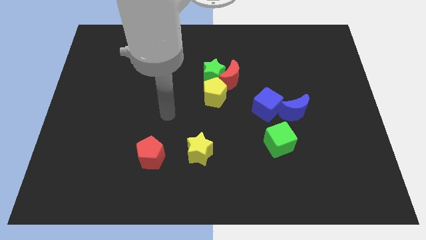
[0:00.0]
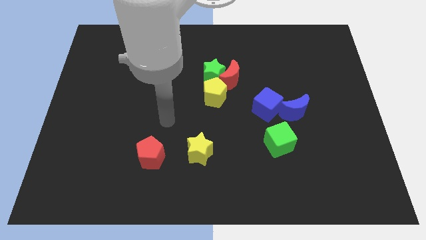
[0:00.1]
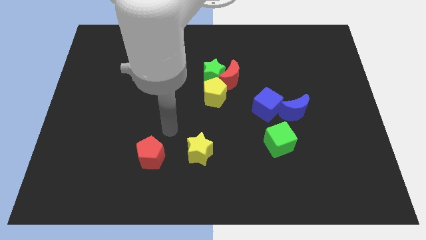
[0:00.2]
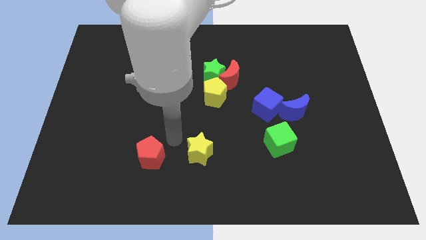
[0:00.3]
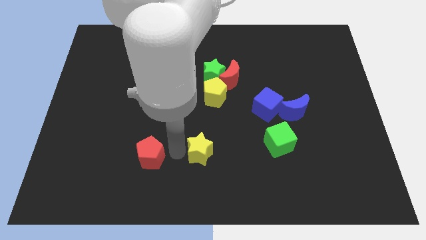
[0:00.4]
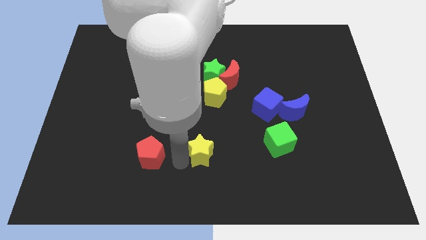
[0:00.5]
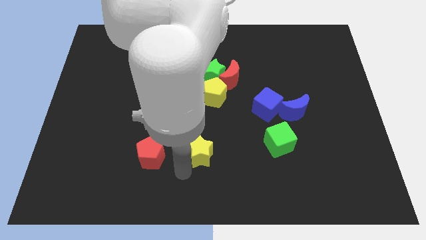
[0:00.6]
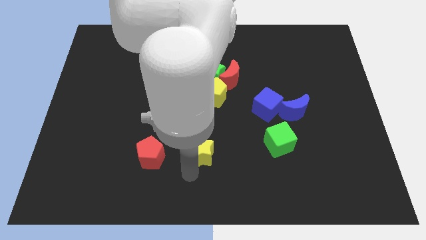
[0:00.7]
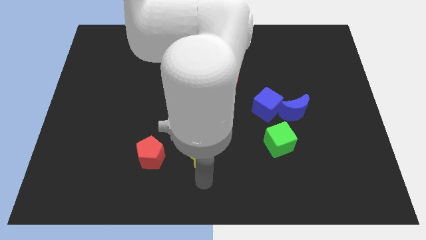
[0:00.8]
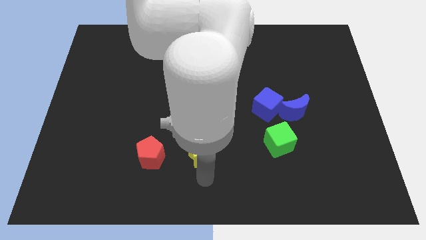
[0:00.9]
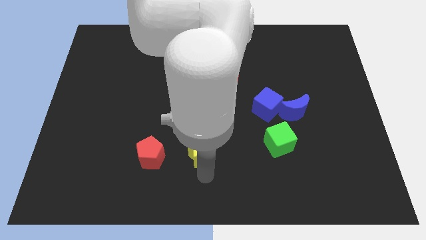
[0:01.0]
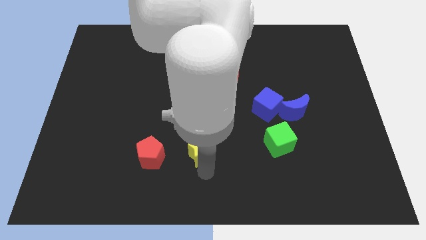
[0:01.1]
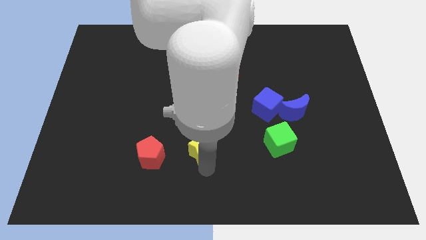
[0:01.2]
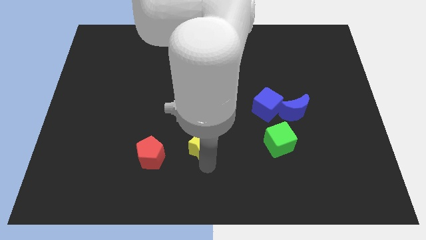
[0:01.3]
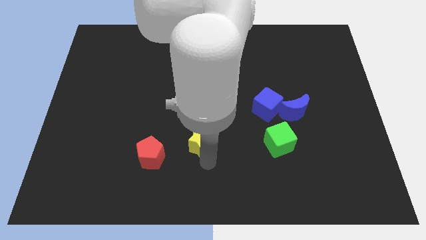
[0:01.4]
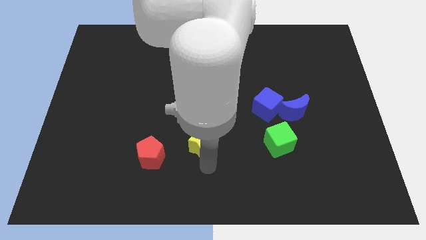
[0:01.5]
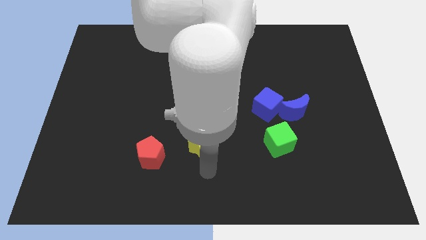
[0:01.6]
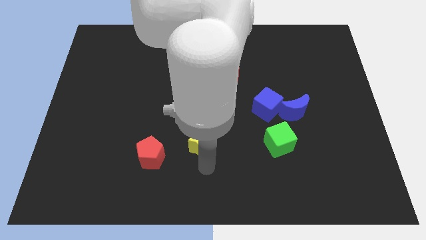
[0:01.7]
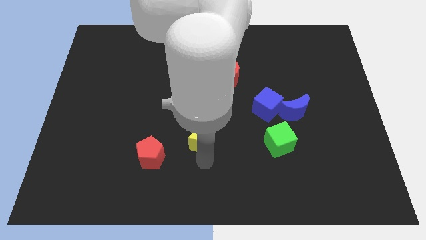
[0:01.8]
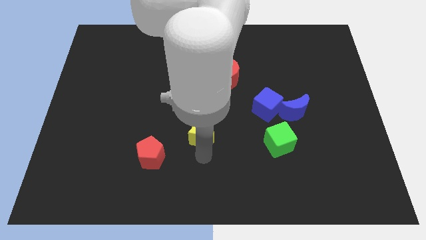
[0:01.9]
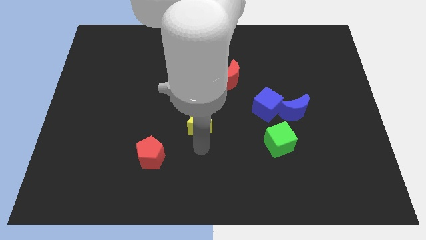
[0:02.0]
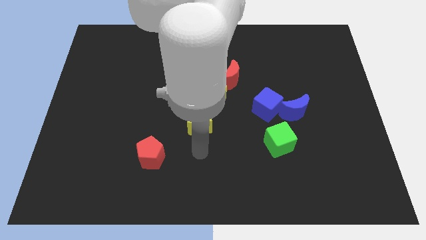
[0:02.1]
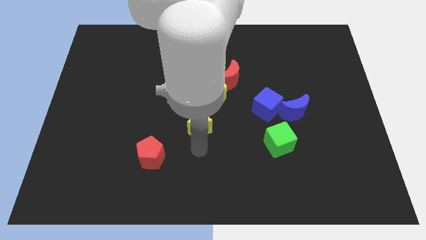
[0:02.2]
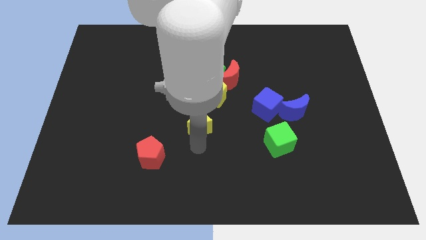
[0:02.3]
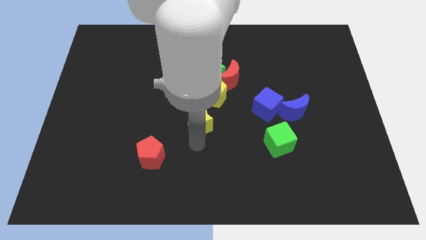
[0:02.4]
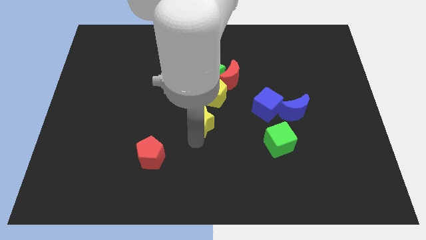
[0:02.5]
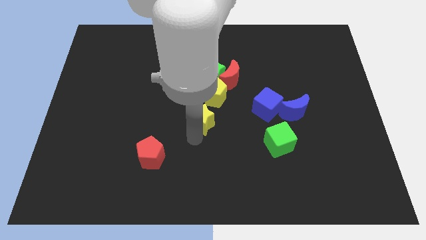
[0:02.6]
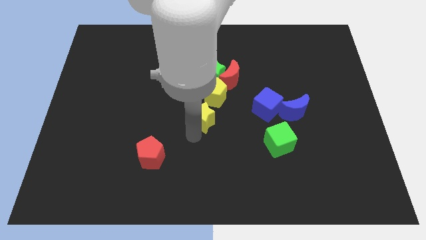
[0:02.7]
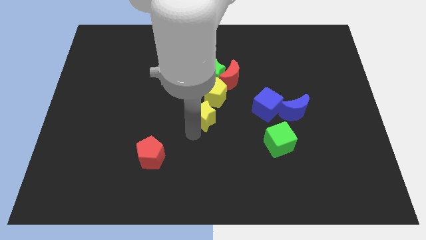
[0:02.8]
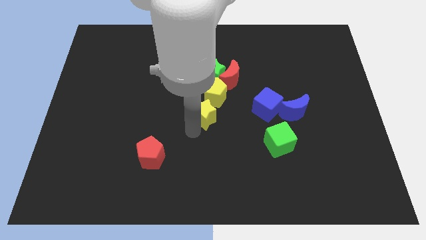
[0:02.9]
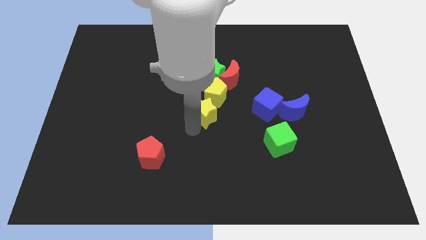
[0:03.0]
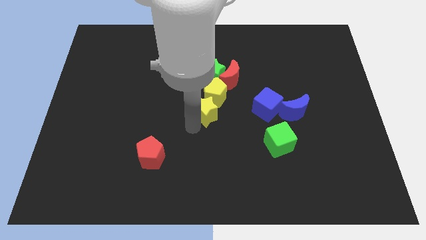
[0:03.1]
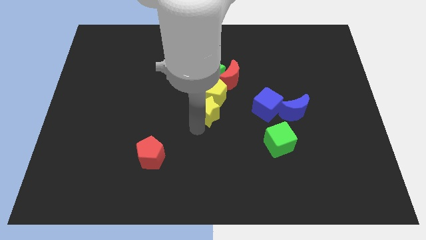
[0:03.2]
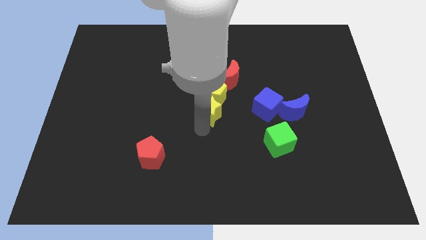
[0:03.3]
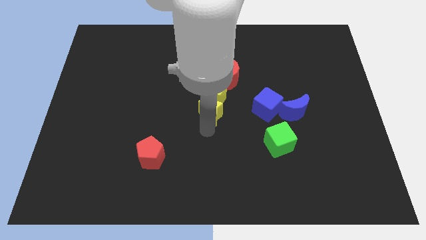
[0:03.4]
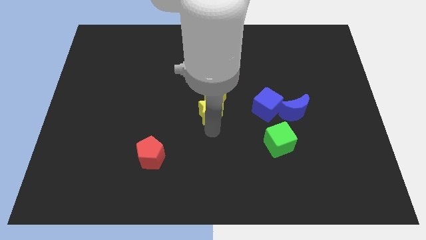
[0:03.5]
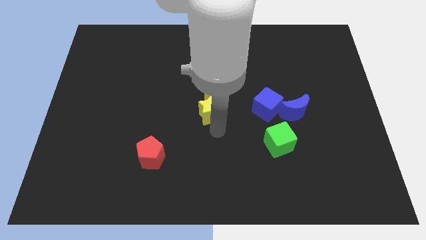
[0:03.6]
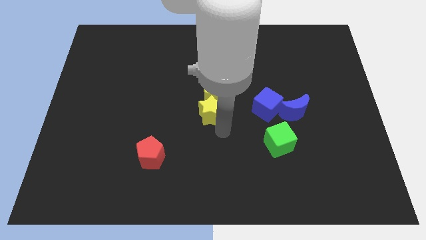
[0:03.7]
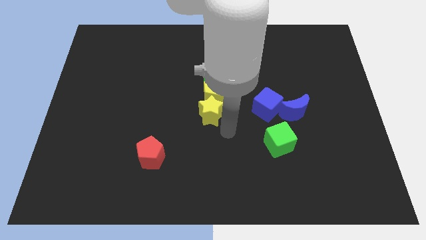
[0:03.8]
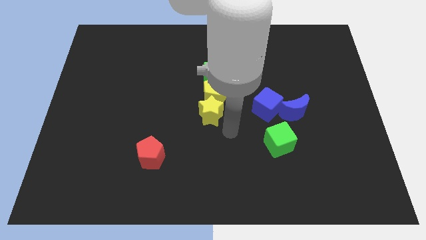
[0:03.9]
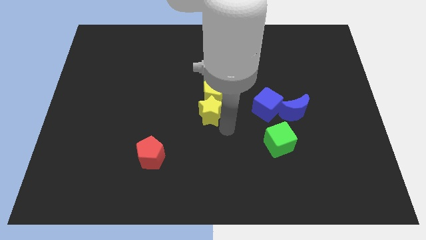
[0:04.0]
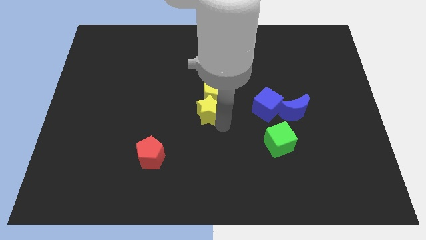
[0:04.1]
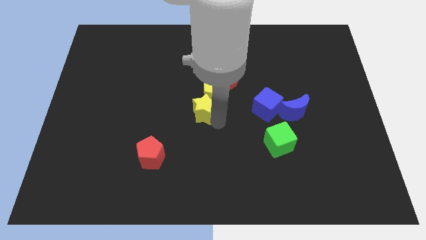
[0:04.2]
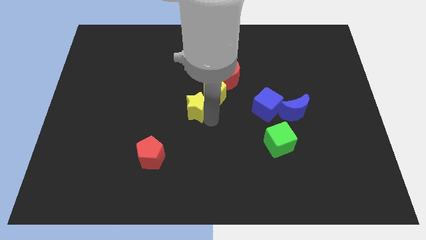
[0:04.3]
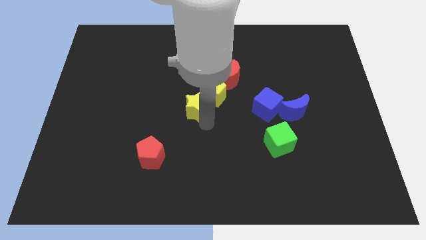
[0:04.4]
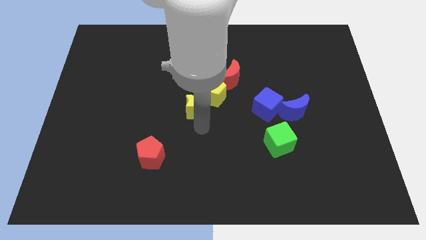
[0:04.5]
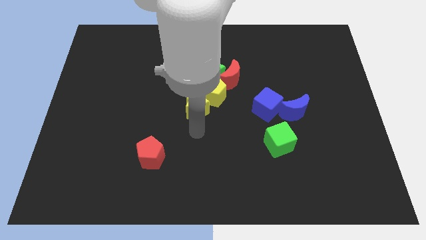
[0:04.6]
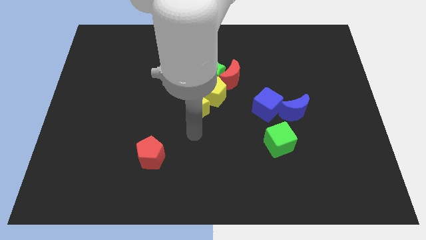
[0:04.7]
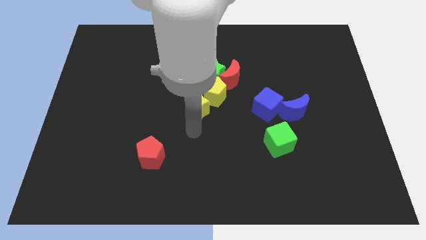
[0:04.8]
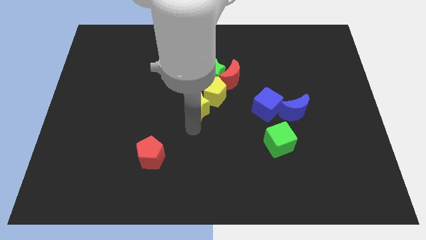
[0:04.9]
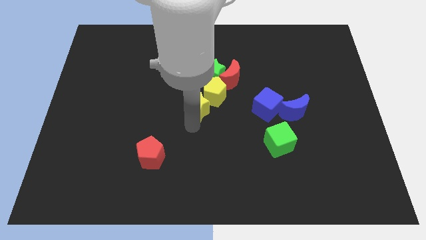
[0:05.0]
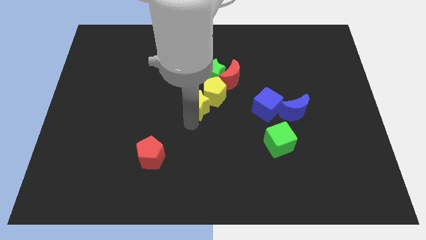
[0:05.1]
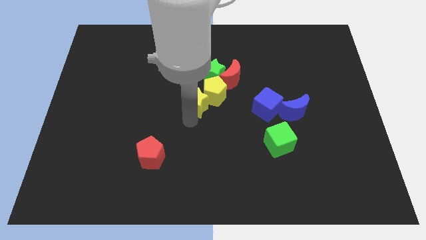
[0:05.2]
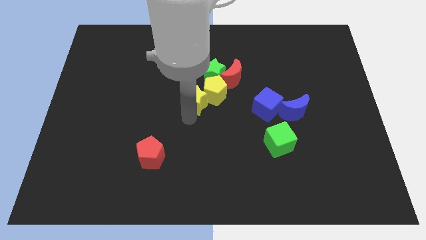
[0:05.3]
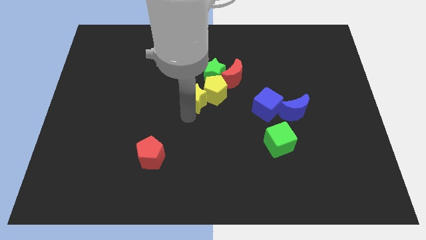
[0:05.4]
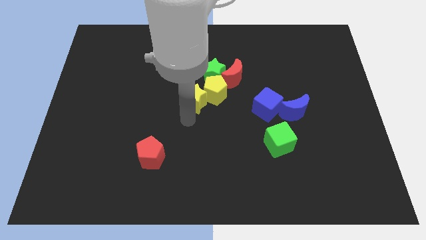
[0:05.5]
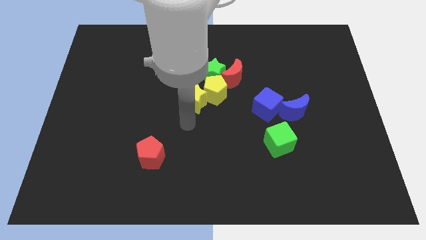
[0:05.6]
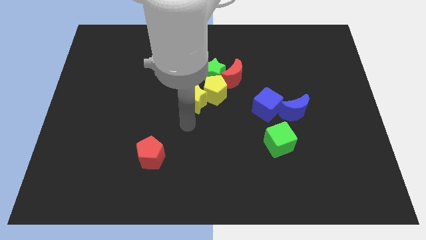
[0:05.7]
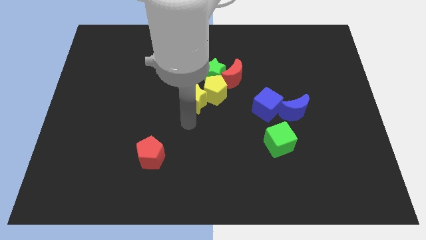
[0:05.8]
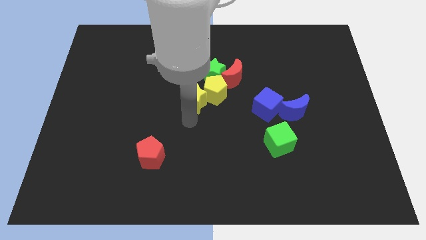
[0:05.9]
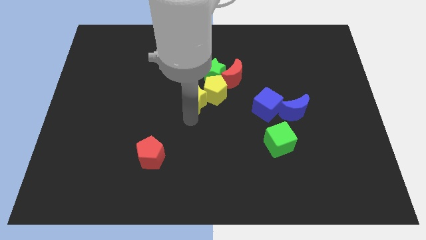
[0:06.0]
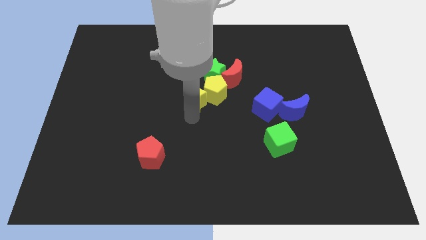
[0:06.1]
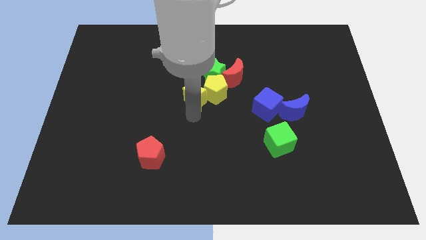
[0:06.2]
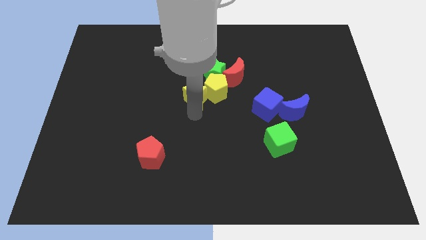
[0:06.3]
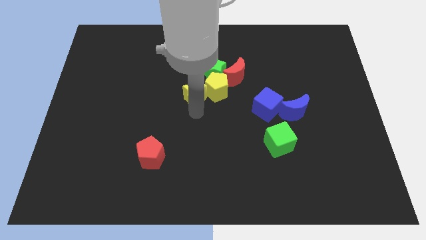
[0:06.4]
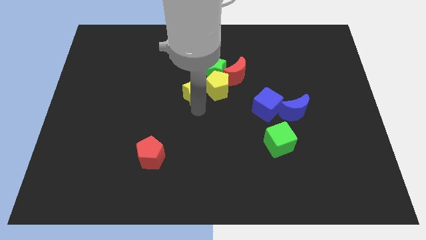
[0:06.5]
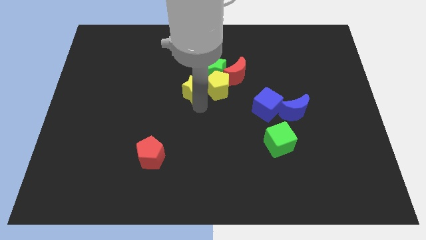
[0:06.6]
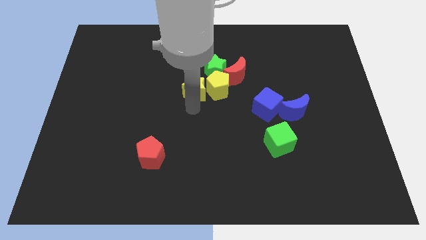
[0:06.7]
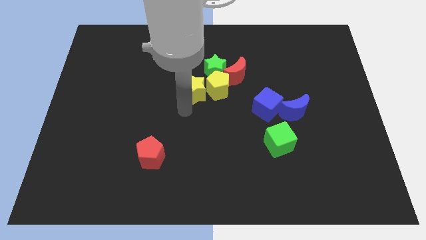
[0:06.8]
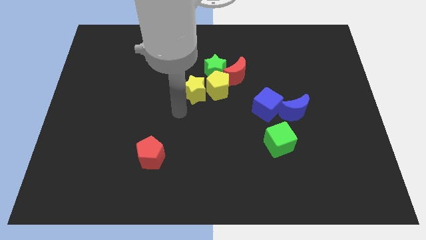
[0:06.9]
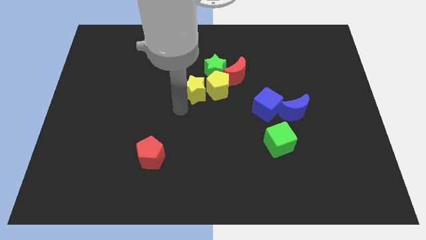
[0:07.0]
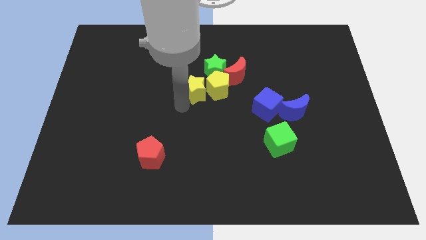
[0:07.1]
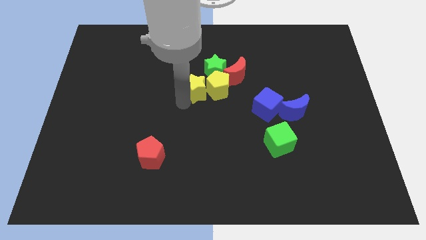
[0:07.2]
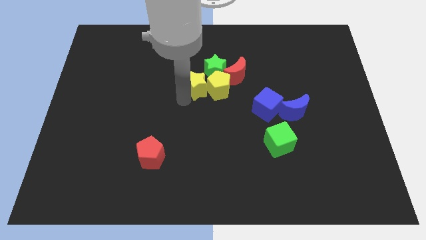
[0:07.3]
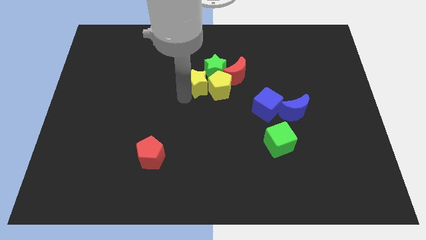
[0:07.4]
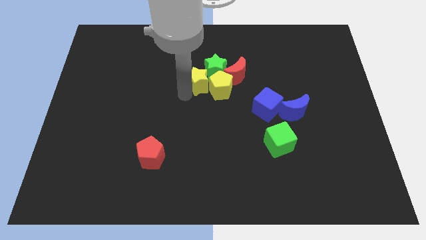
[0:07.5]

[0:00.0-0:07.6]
push the yellow star to the green star
